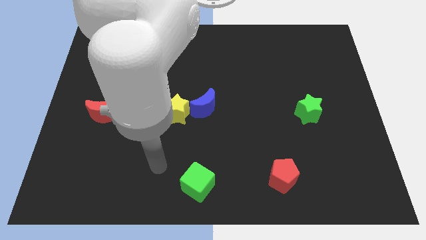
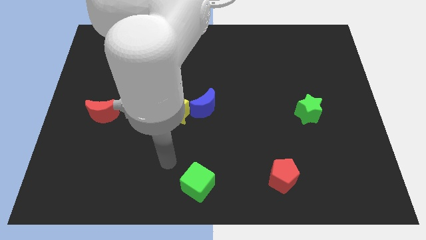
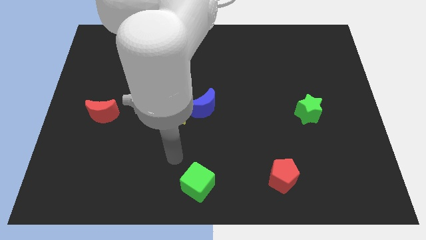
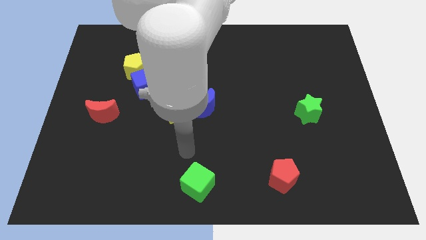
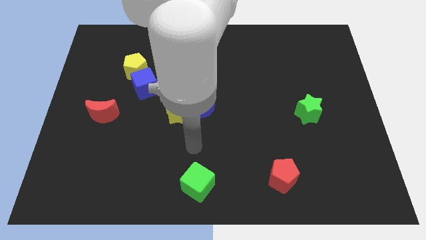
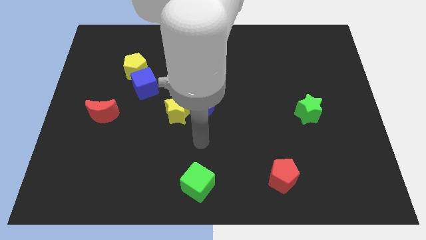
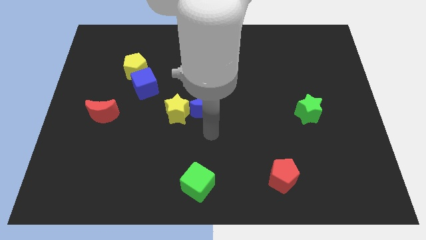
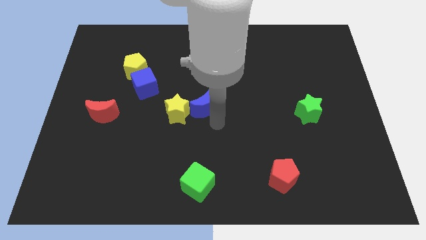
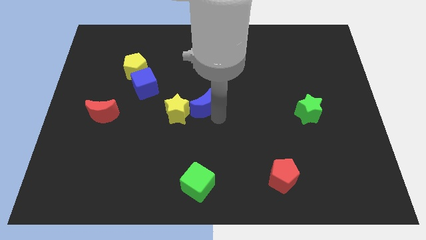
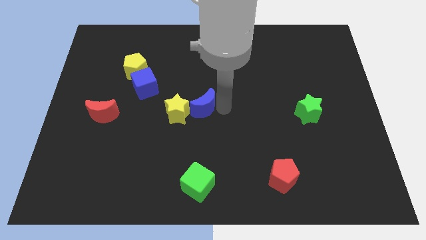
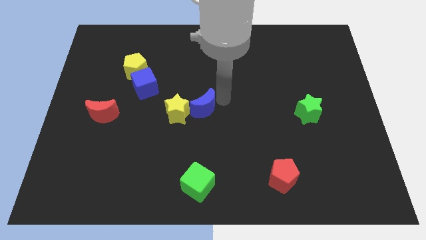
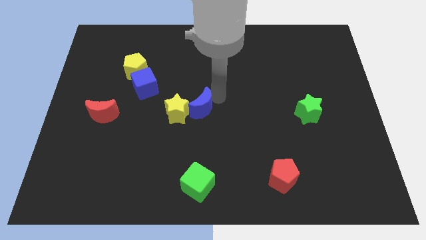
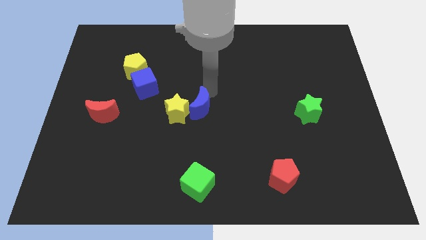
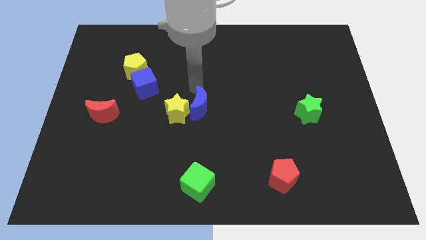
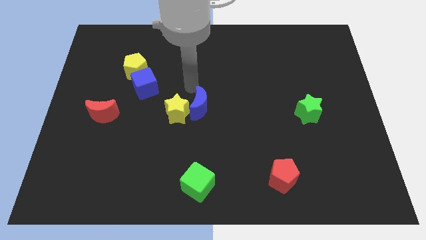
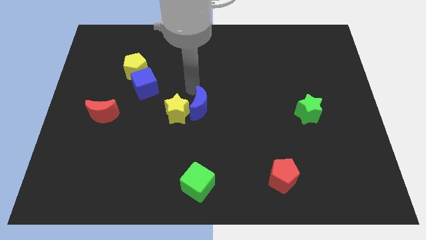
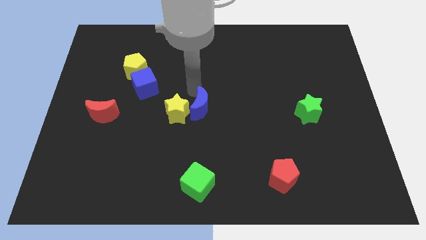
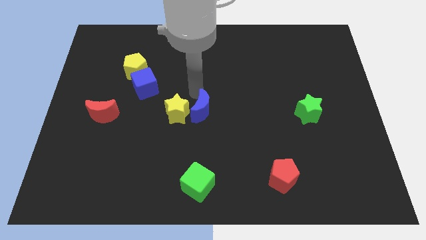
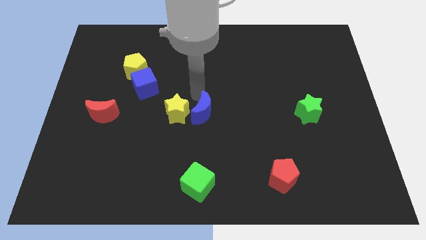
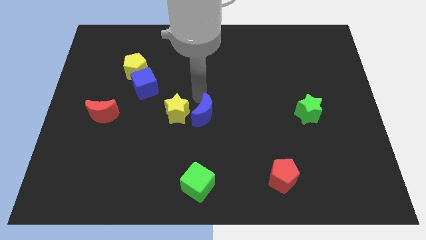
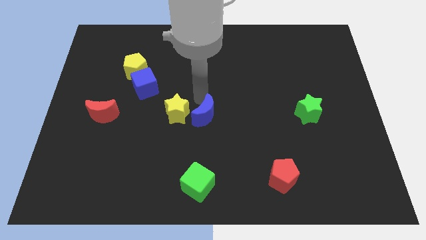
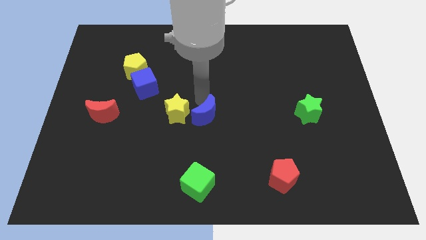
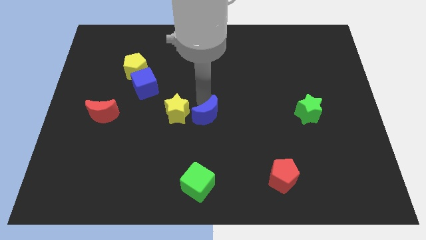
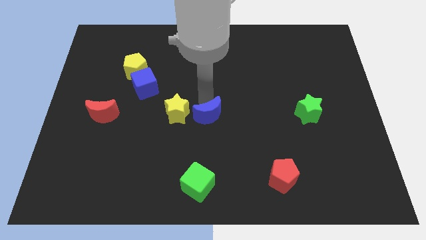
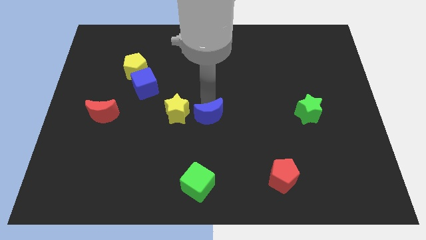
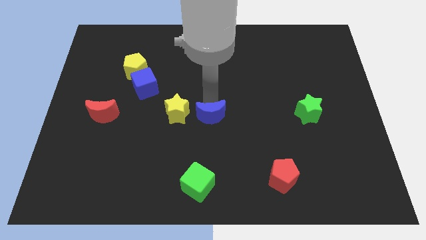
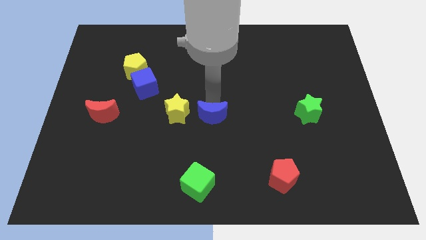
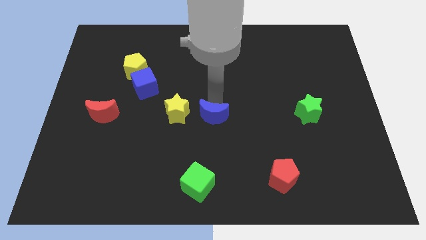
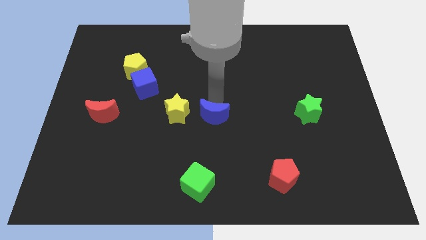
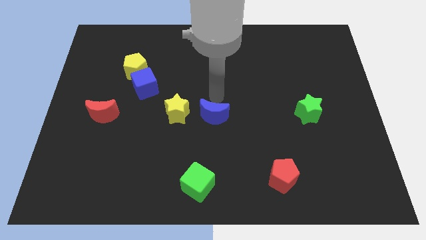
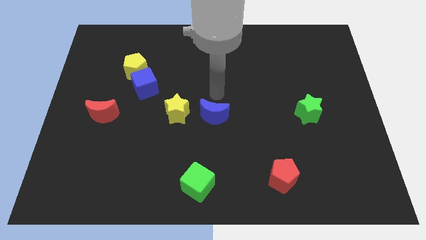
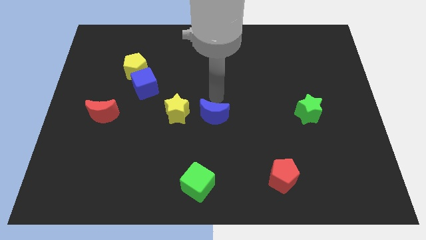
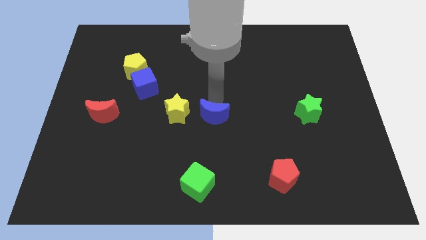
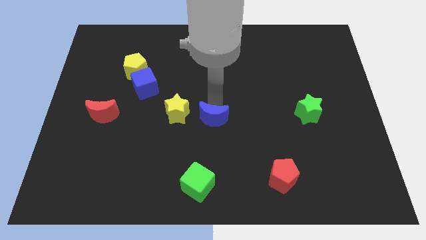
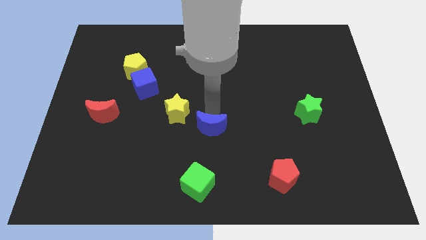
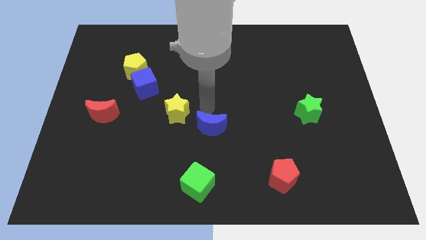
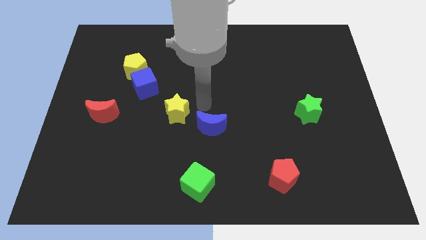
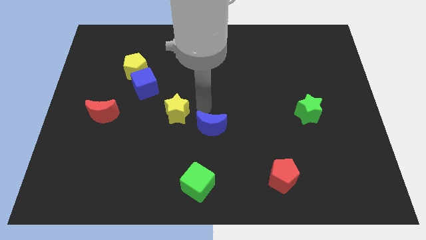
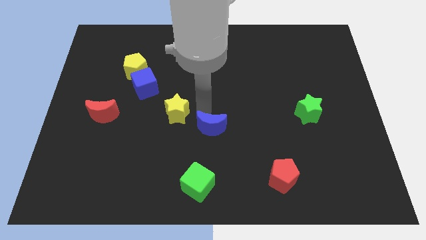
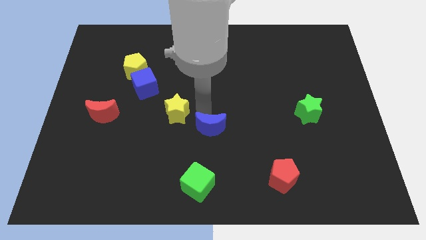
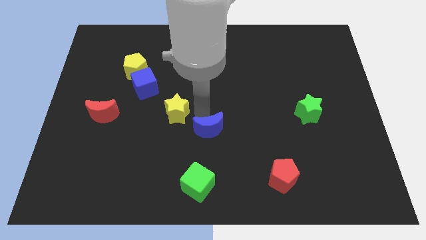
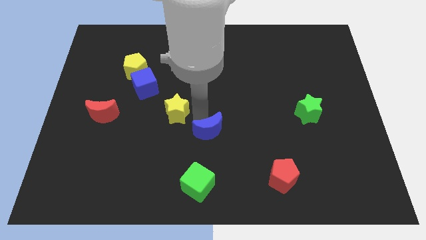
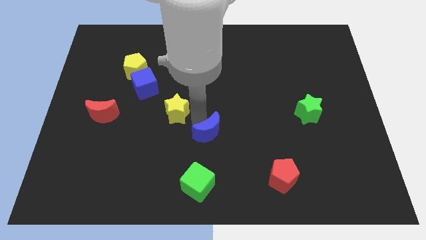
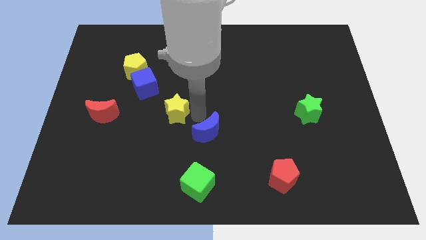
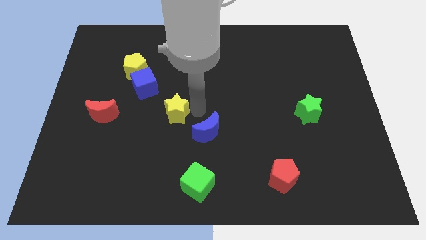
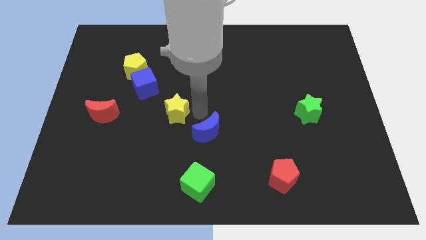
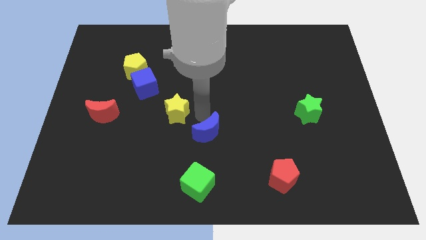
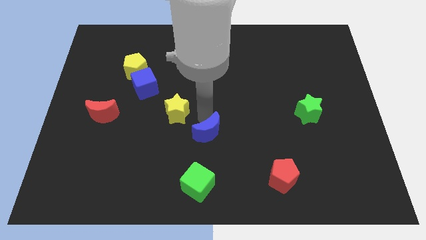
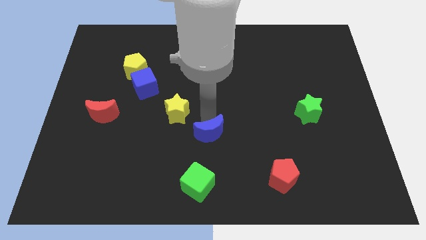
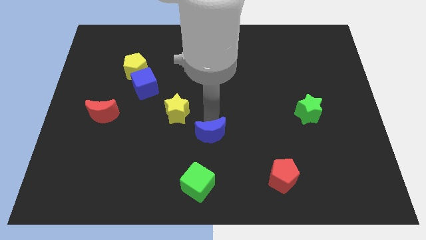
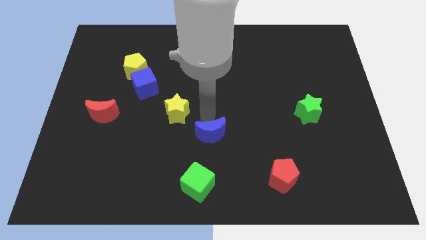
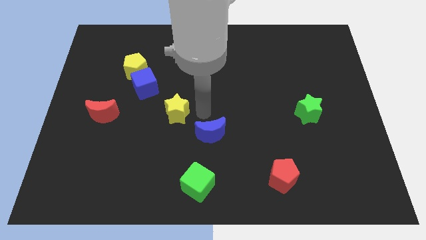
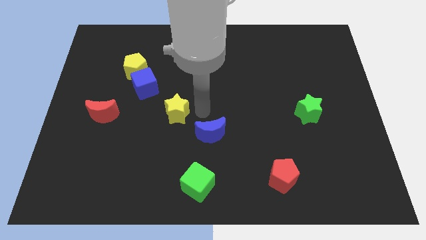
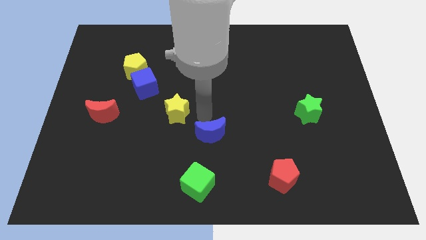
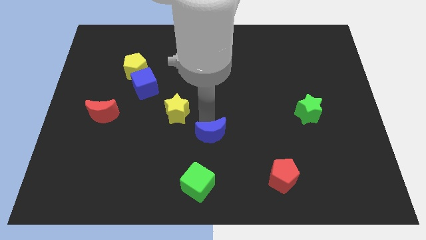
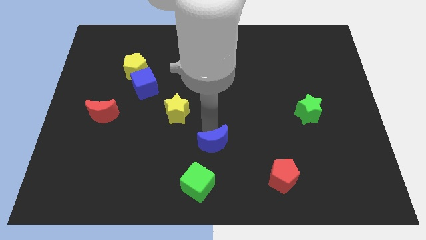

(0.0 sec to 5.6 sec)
put the blue moon diagonally up and to the right of the green cube

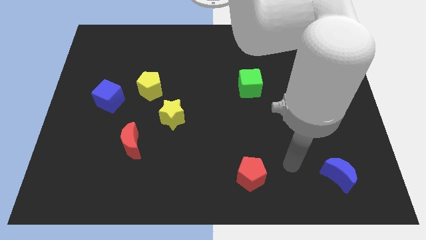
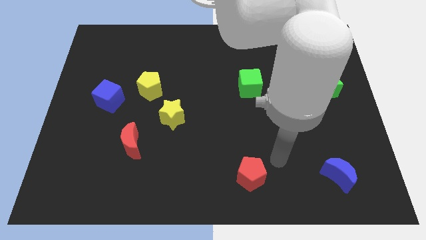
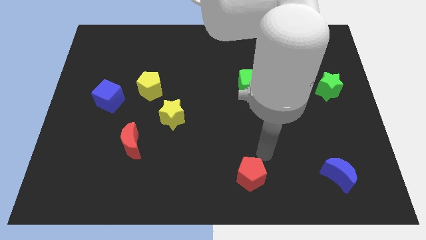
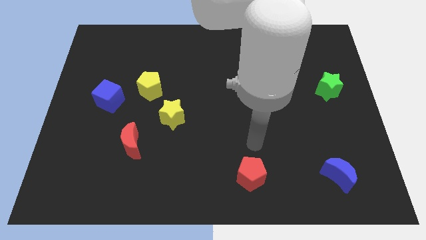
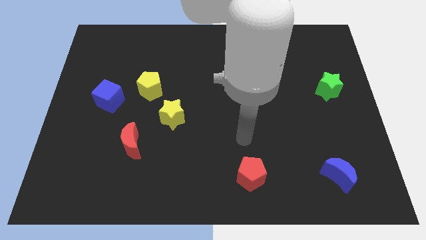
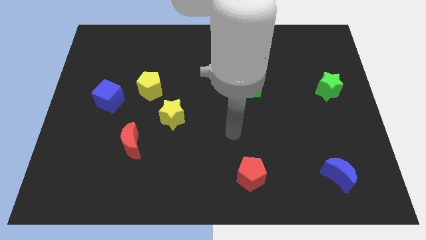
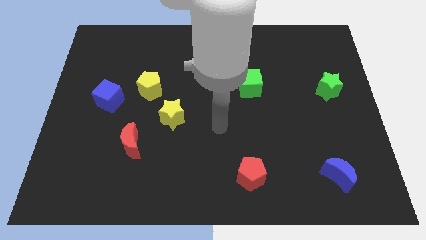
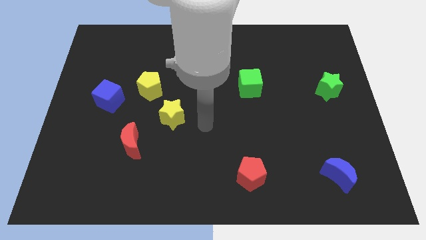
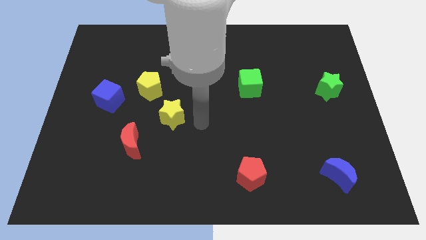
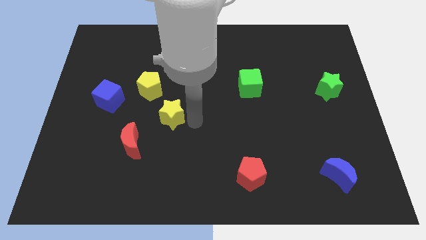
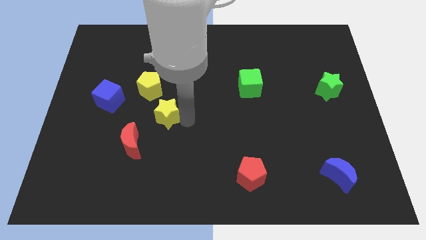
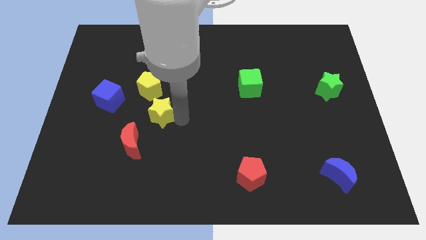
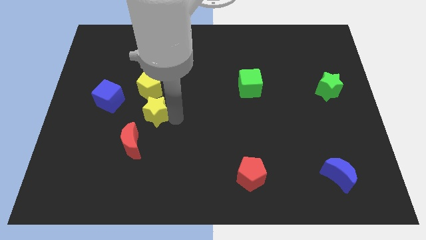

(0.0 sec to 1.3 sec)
push the yellow star to the top side of the red moon
